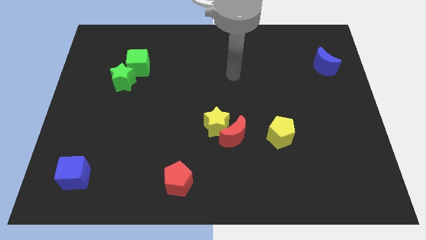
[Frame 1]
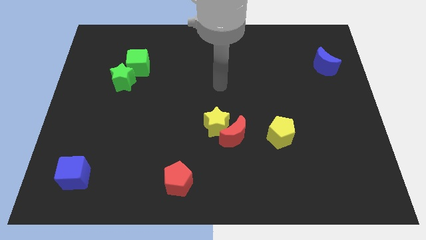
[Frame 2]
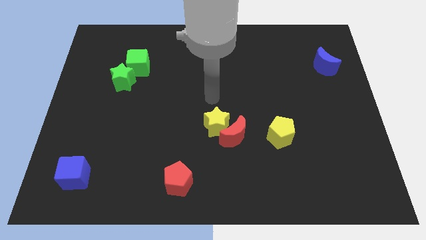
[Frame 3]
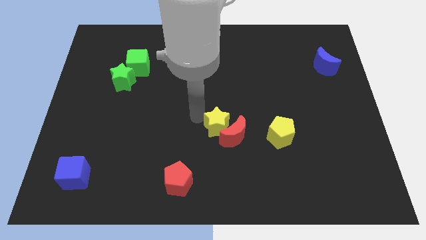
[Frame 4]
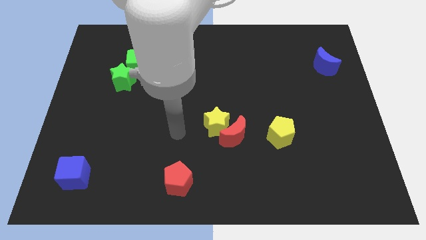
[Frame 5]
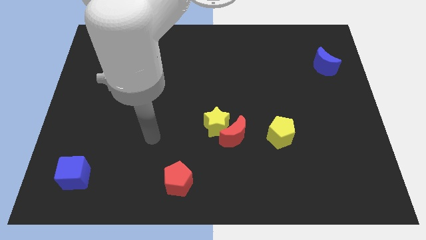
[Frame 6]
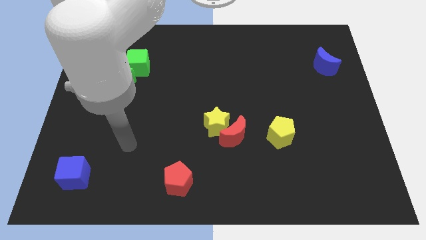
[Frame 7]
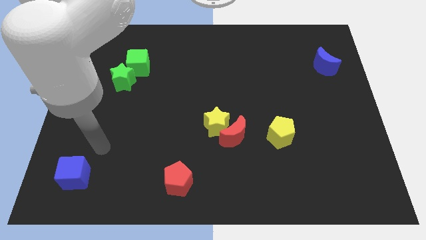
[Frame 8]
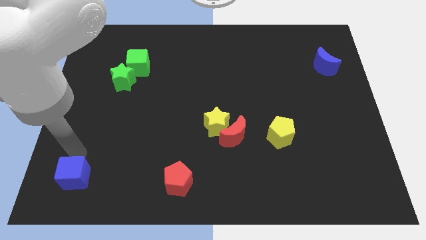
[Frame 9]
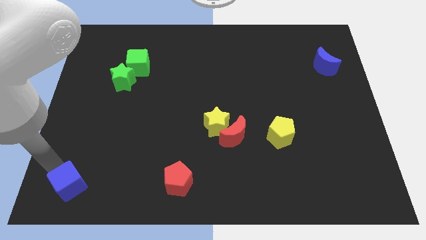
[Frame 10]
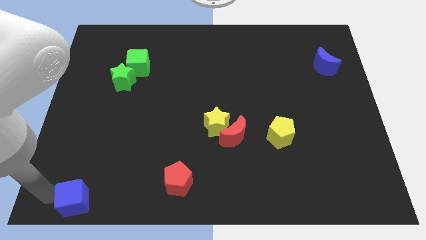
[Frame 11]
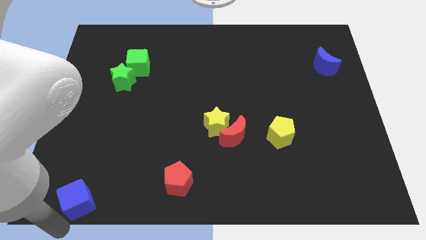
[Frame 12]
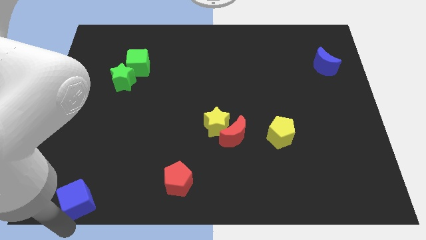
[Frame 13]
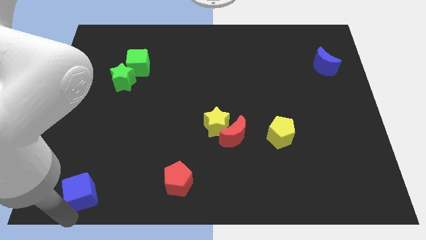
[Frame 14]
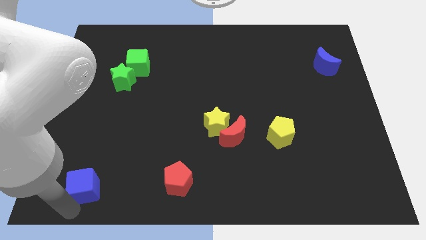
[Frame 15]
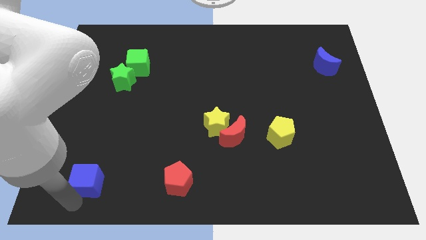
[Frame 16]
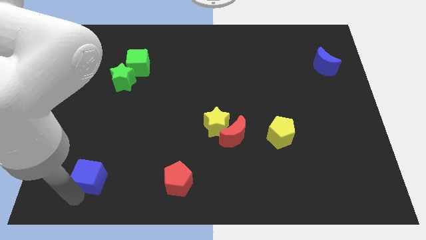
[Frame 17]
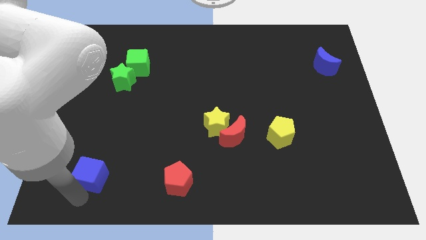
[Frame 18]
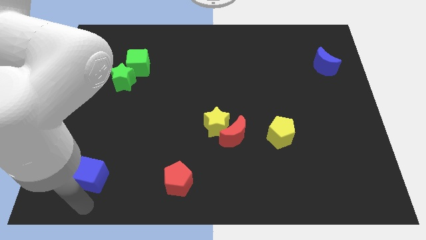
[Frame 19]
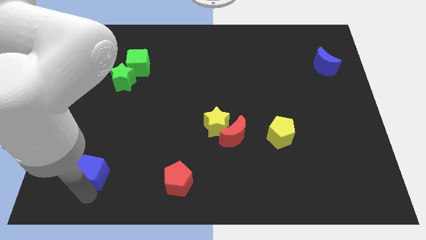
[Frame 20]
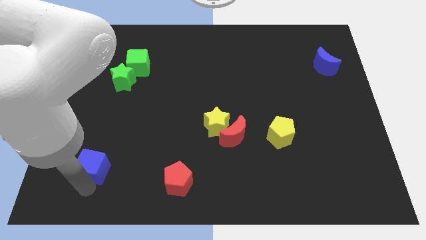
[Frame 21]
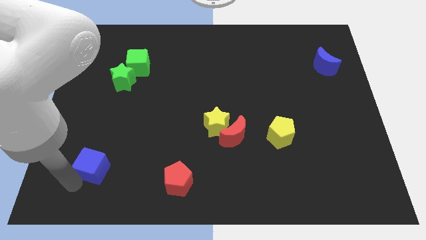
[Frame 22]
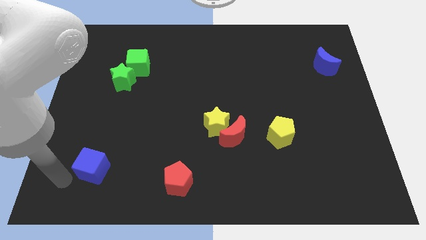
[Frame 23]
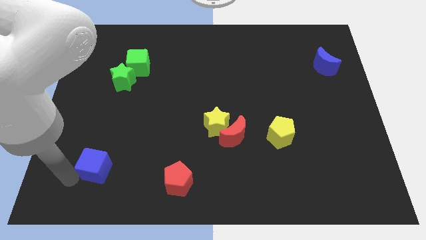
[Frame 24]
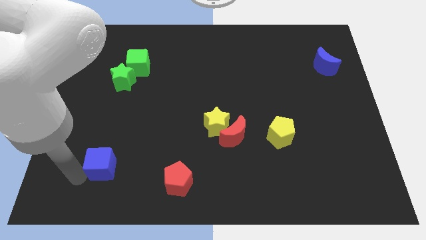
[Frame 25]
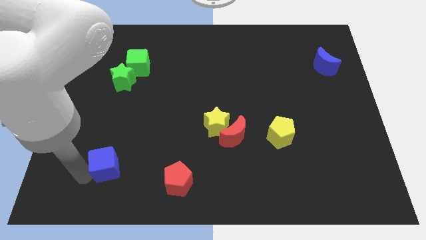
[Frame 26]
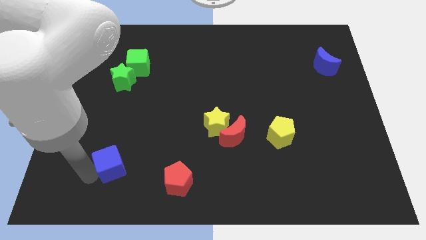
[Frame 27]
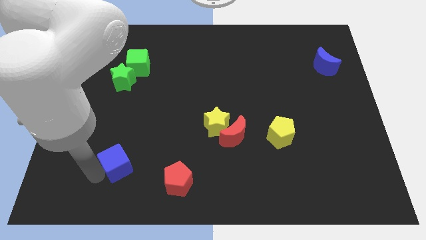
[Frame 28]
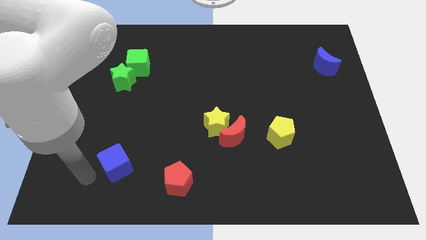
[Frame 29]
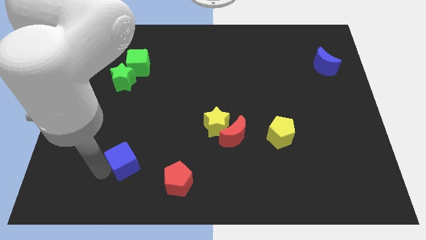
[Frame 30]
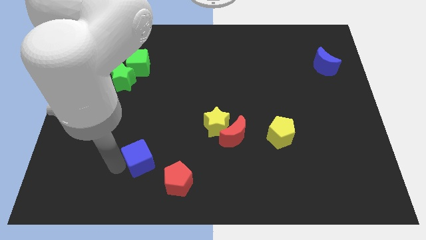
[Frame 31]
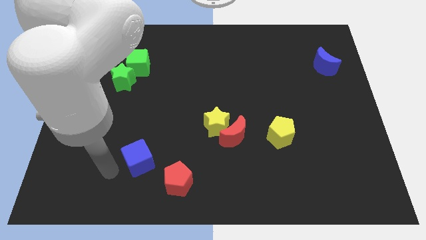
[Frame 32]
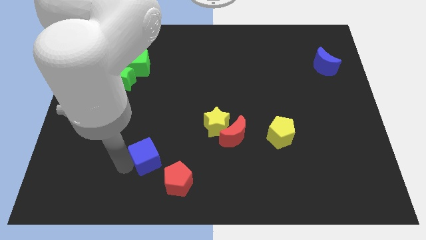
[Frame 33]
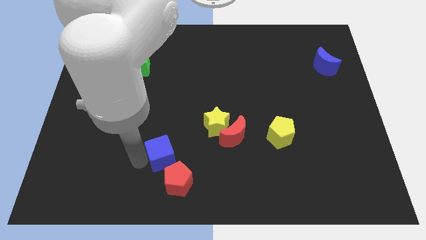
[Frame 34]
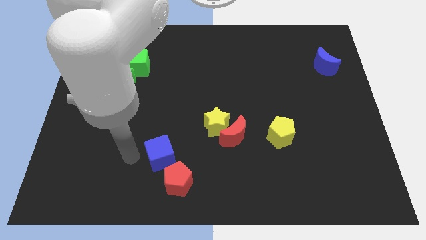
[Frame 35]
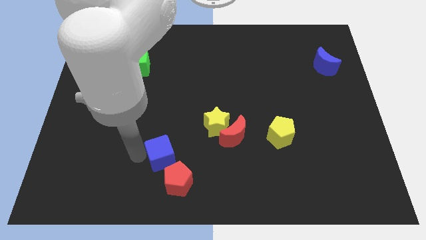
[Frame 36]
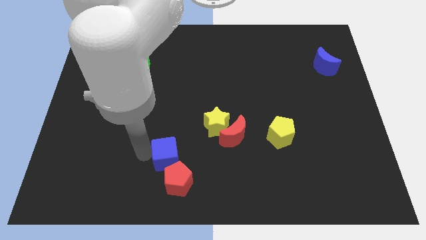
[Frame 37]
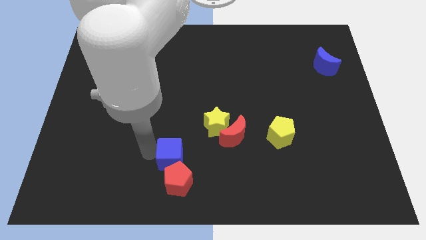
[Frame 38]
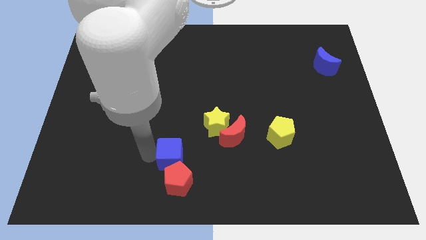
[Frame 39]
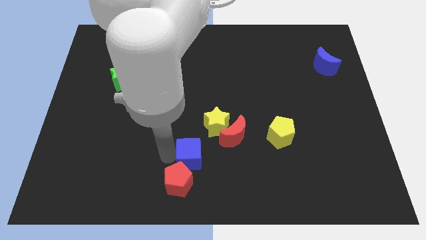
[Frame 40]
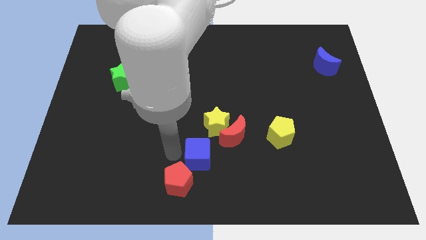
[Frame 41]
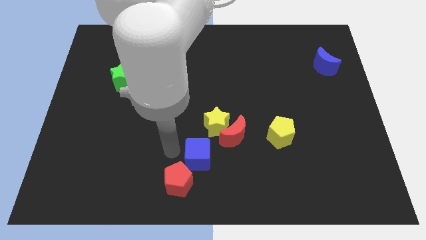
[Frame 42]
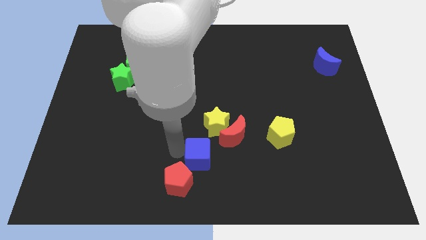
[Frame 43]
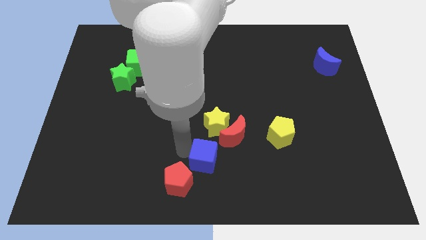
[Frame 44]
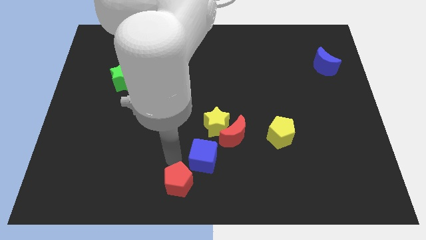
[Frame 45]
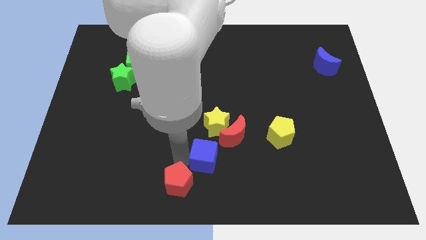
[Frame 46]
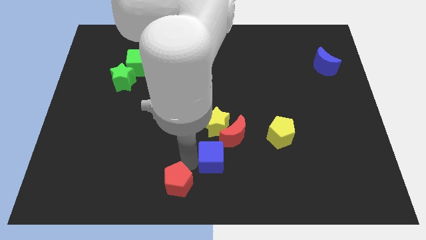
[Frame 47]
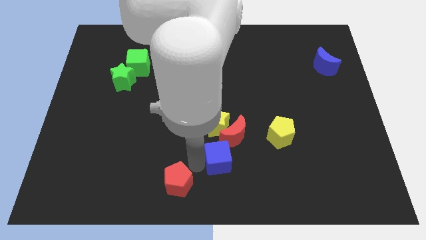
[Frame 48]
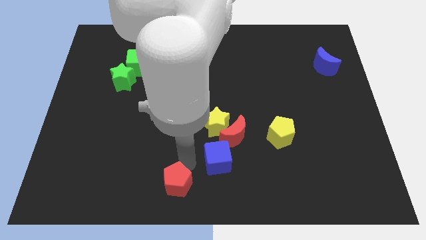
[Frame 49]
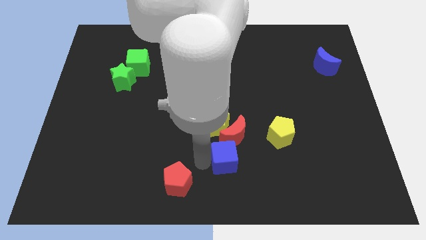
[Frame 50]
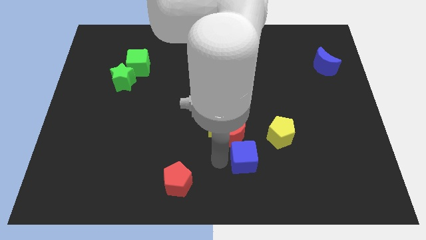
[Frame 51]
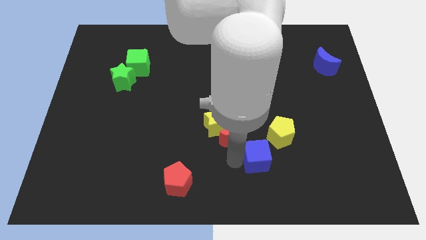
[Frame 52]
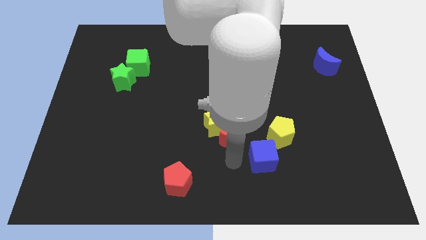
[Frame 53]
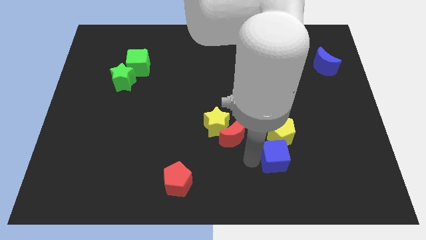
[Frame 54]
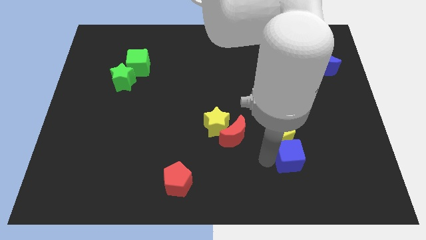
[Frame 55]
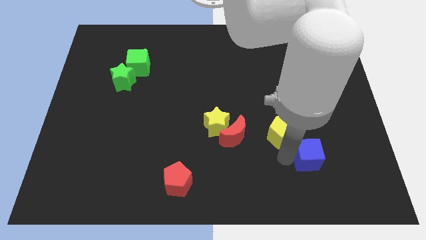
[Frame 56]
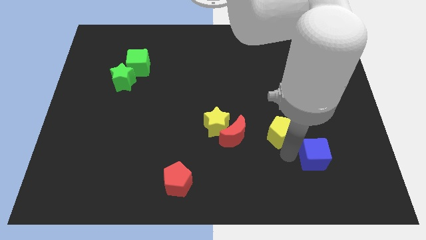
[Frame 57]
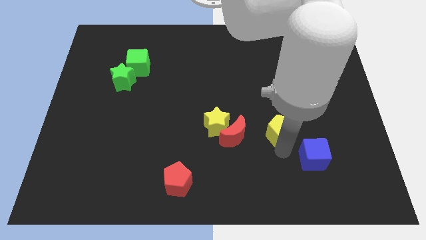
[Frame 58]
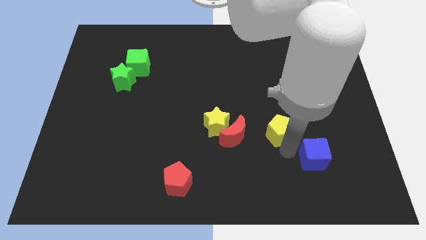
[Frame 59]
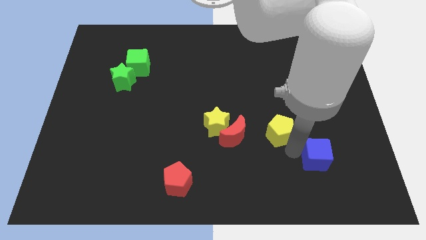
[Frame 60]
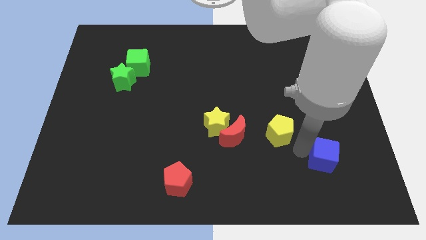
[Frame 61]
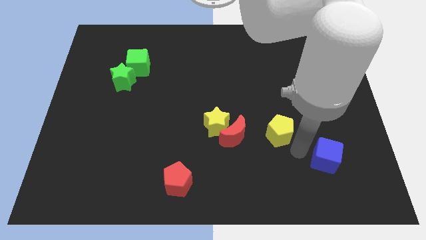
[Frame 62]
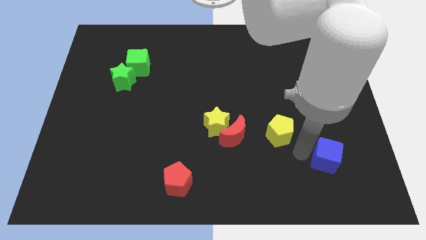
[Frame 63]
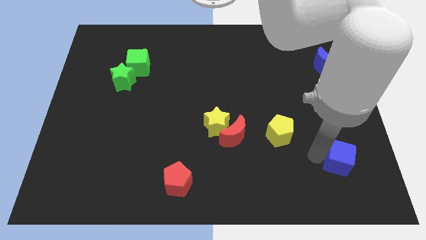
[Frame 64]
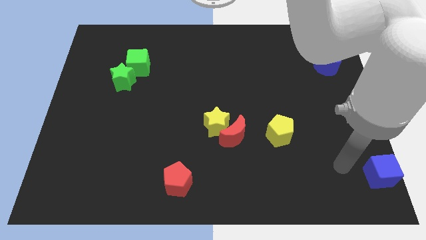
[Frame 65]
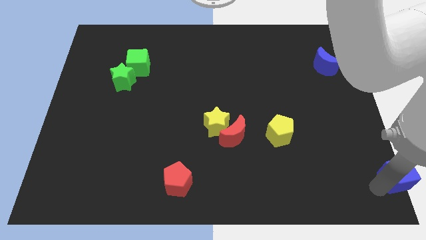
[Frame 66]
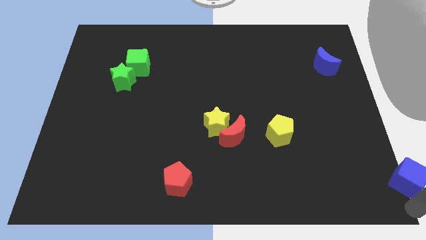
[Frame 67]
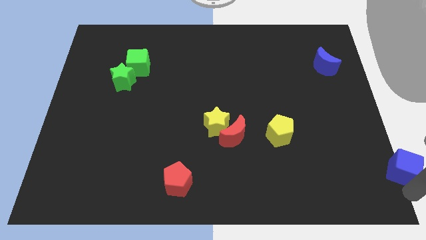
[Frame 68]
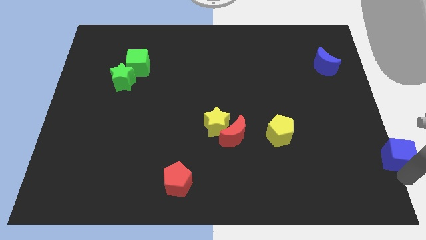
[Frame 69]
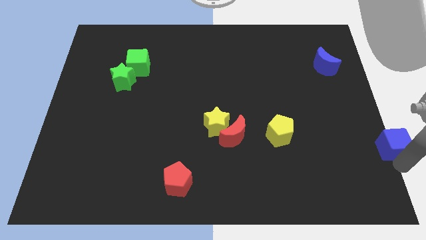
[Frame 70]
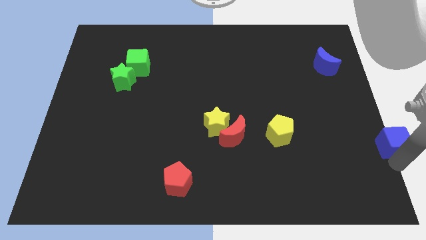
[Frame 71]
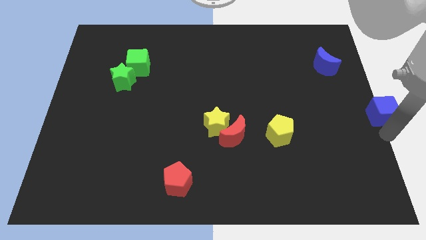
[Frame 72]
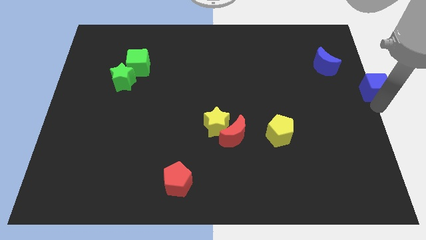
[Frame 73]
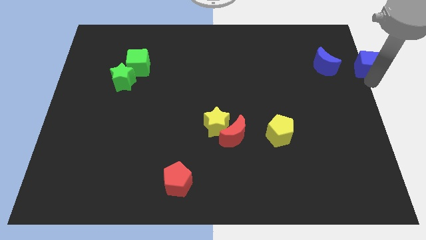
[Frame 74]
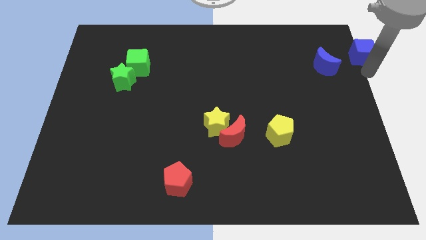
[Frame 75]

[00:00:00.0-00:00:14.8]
slide the blue cube to the top right of the board
